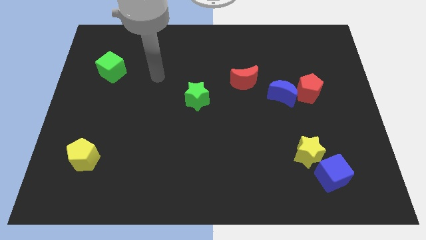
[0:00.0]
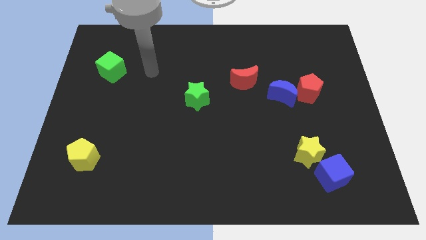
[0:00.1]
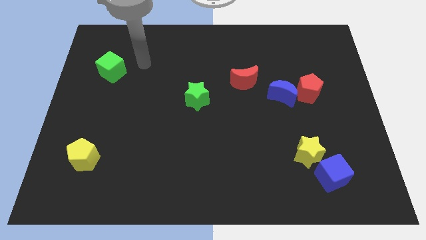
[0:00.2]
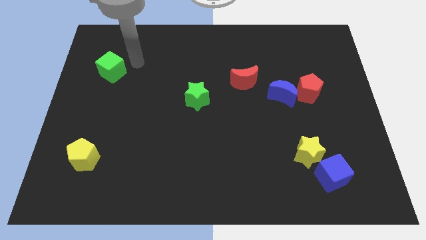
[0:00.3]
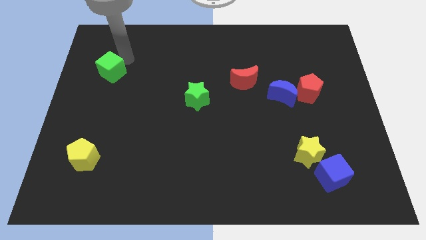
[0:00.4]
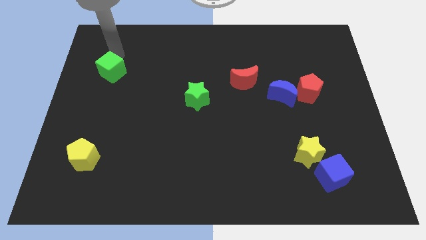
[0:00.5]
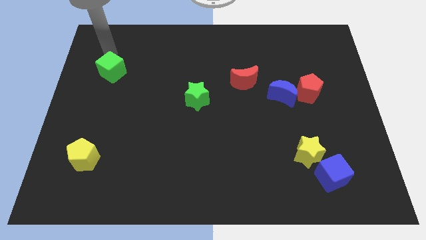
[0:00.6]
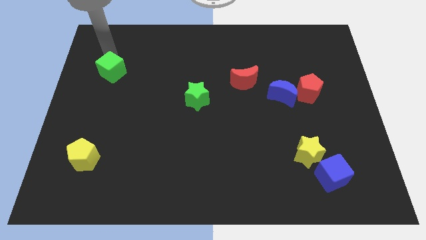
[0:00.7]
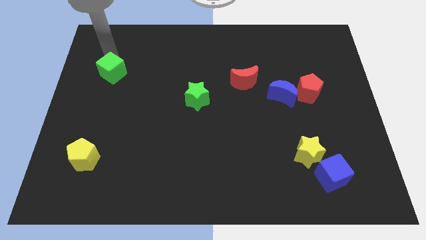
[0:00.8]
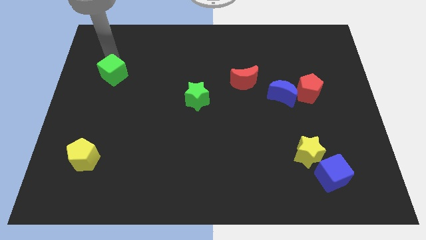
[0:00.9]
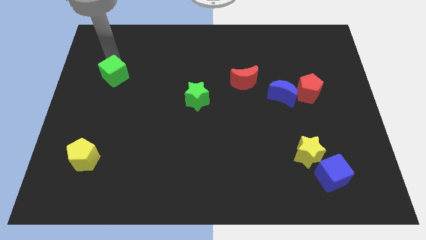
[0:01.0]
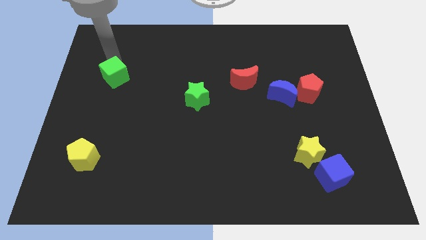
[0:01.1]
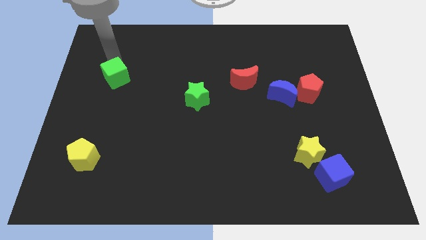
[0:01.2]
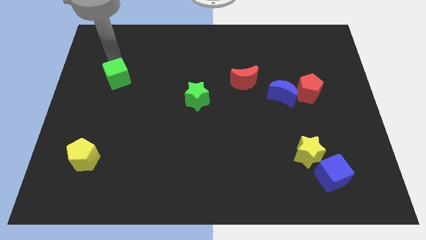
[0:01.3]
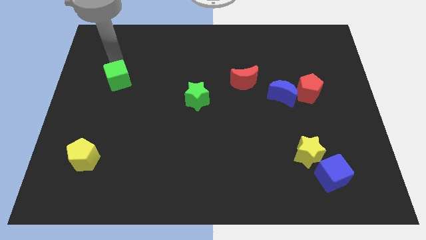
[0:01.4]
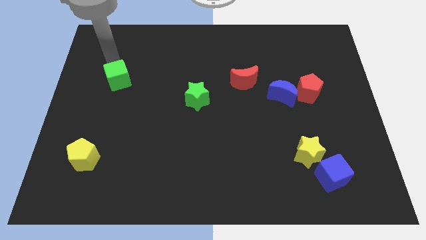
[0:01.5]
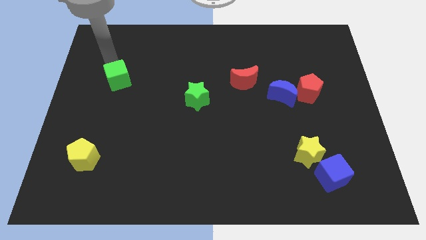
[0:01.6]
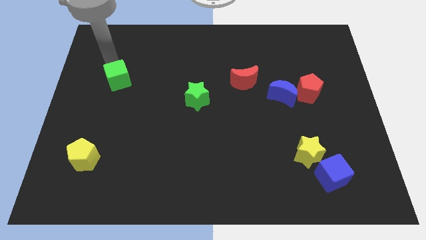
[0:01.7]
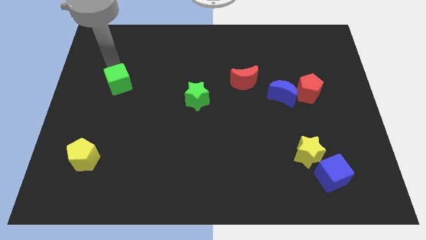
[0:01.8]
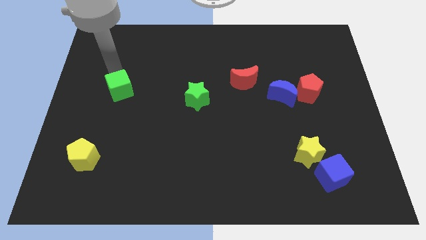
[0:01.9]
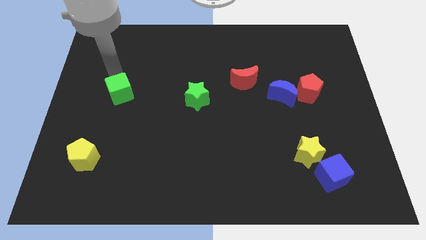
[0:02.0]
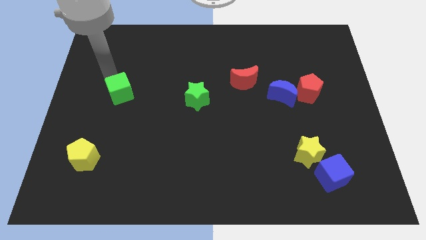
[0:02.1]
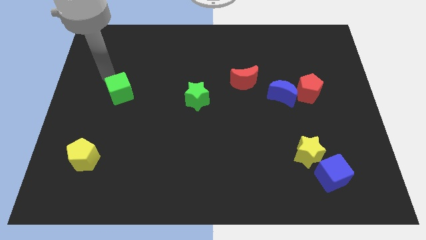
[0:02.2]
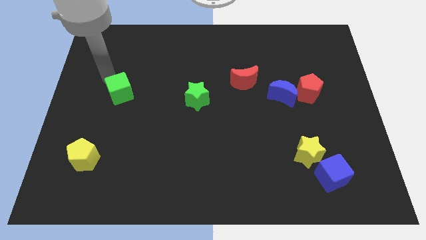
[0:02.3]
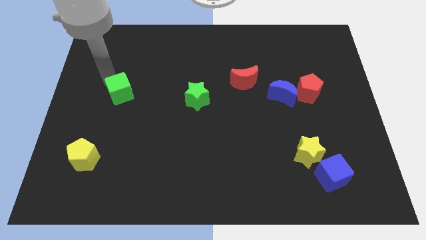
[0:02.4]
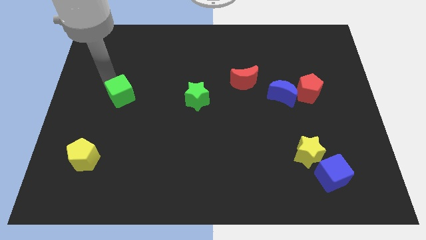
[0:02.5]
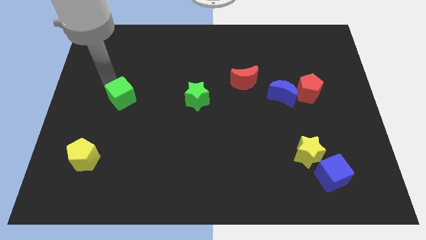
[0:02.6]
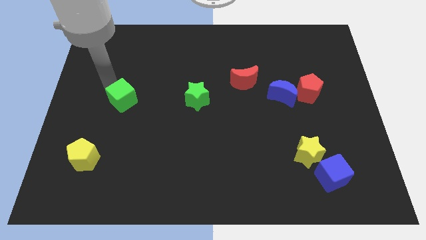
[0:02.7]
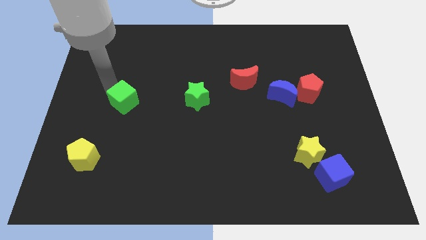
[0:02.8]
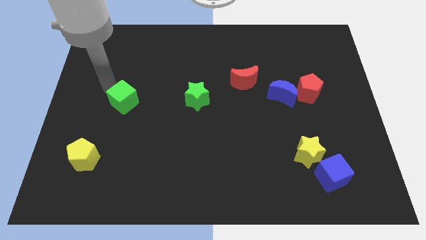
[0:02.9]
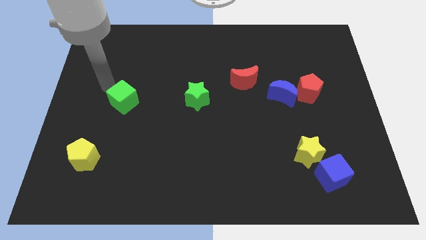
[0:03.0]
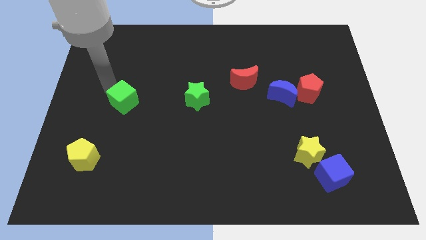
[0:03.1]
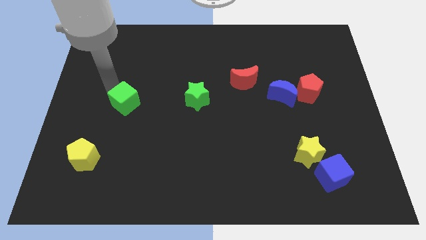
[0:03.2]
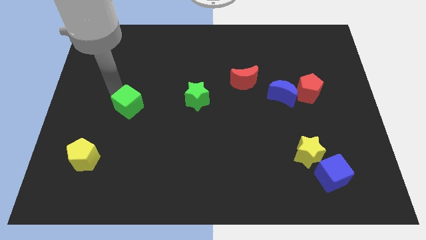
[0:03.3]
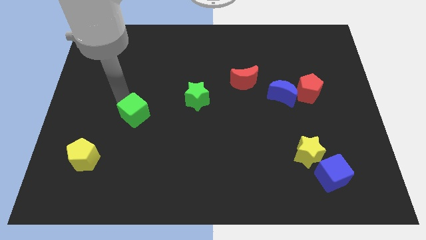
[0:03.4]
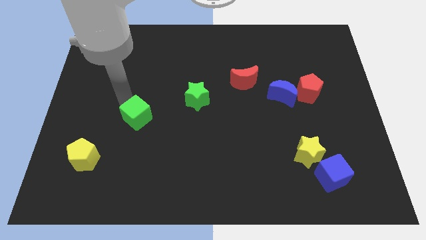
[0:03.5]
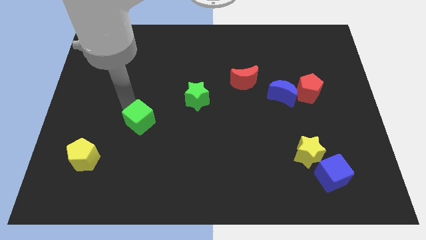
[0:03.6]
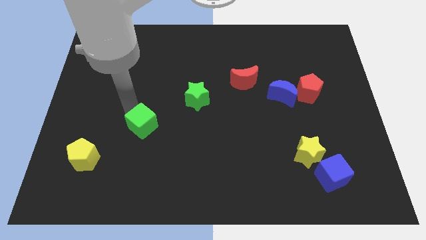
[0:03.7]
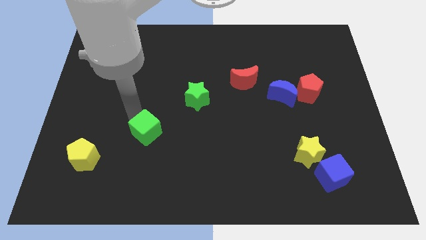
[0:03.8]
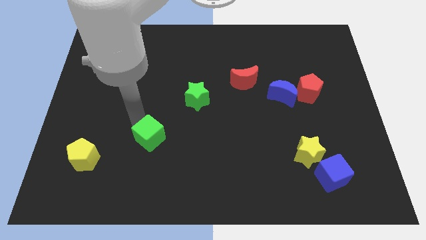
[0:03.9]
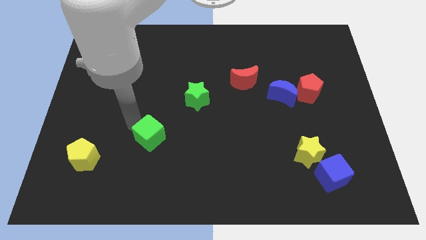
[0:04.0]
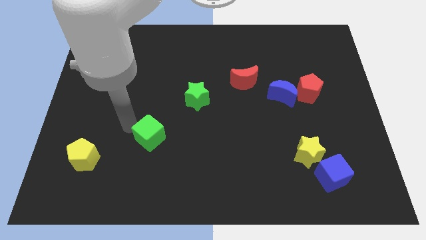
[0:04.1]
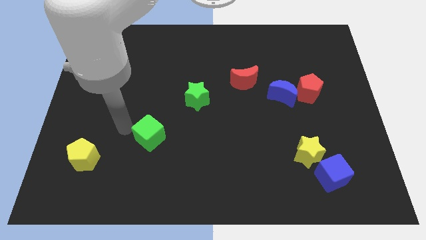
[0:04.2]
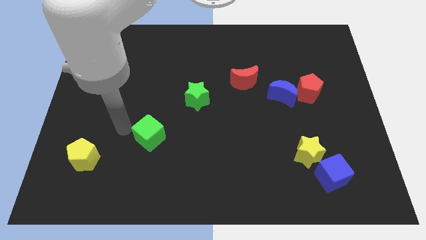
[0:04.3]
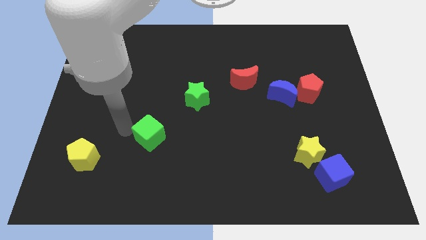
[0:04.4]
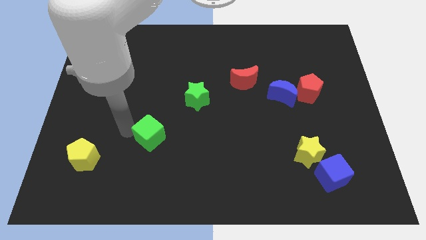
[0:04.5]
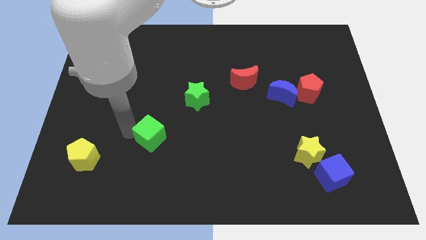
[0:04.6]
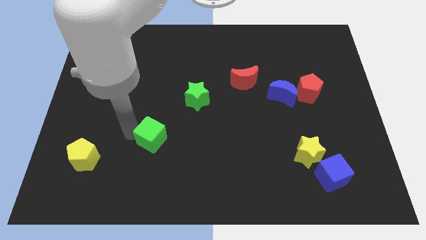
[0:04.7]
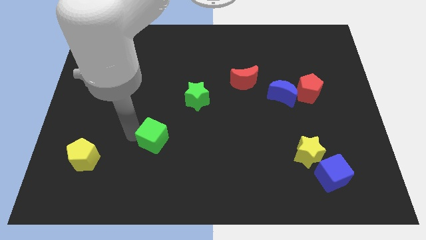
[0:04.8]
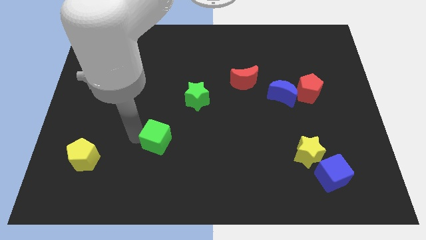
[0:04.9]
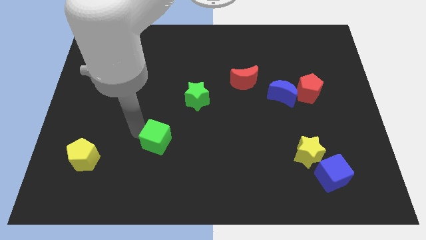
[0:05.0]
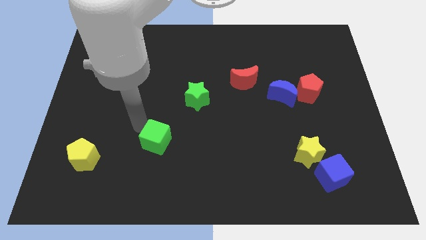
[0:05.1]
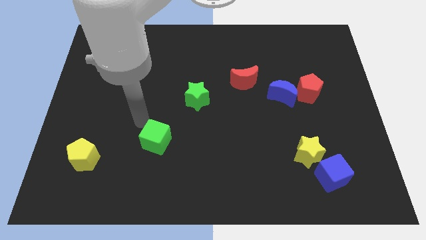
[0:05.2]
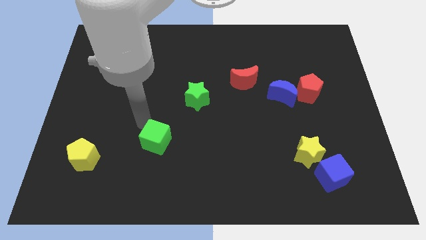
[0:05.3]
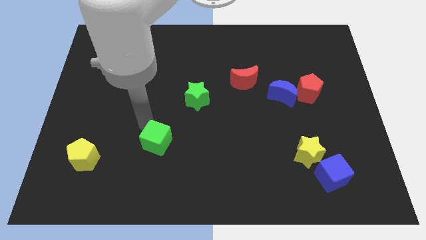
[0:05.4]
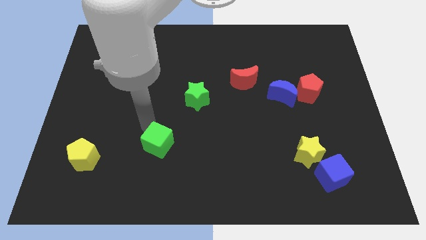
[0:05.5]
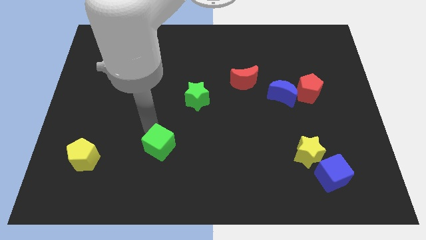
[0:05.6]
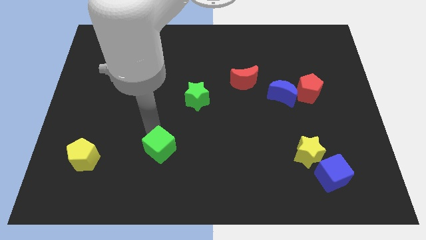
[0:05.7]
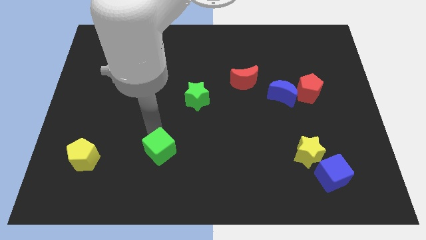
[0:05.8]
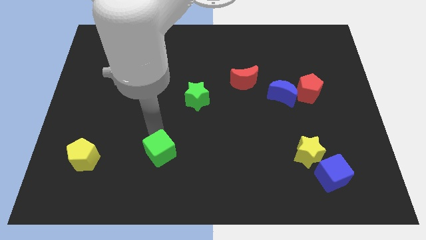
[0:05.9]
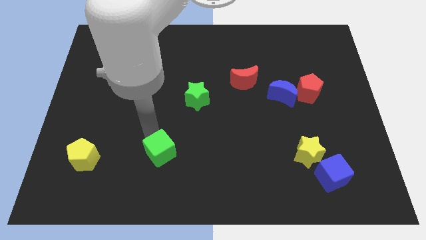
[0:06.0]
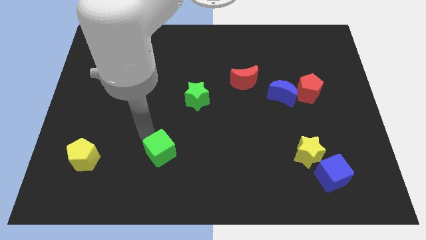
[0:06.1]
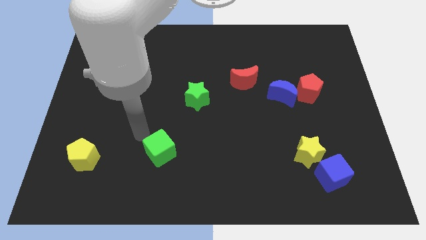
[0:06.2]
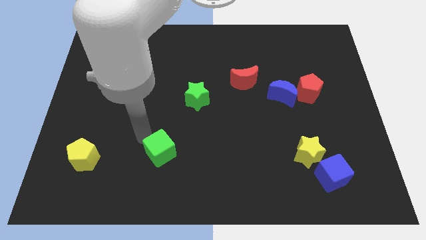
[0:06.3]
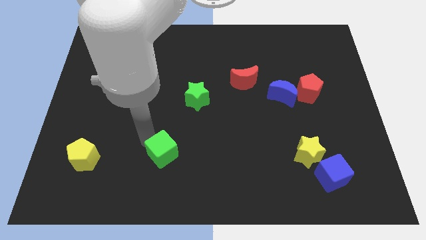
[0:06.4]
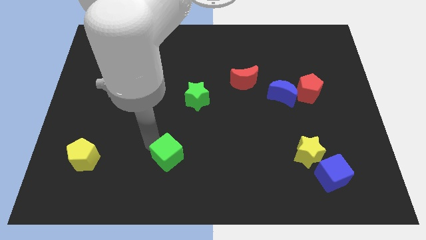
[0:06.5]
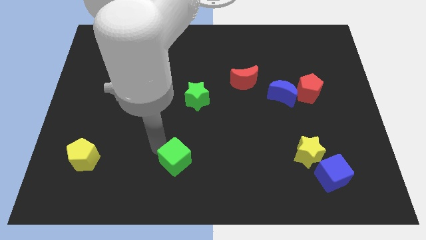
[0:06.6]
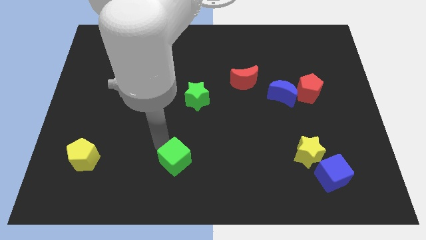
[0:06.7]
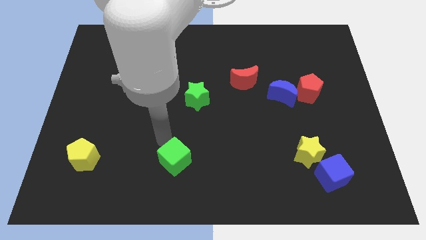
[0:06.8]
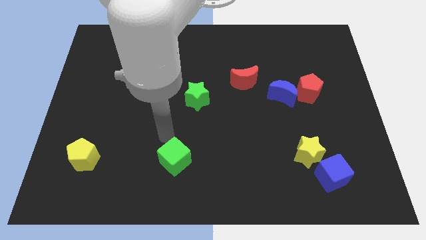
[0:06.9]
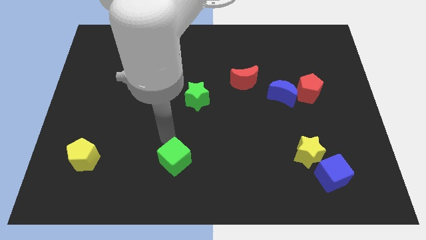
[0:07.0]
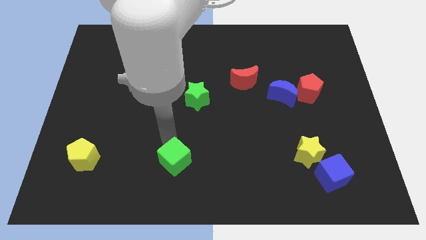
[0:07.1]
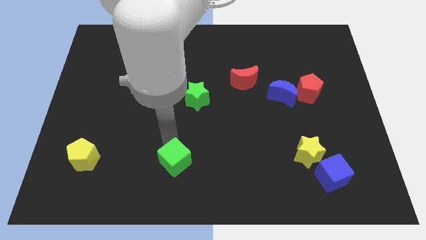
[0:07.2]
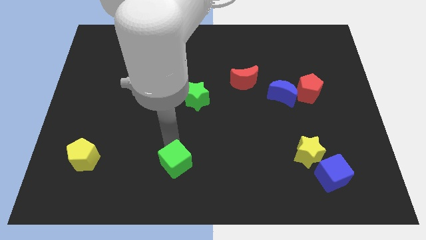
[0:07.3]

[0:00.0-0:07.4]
slide the green cube to the bottom
